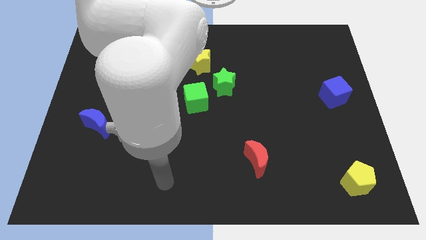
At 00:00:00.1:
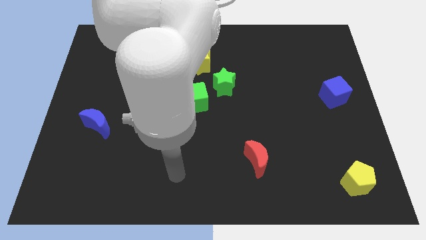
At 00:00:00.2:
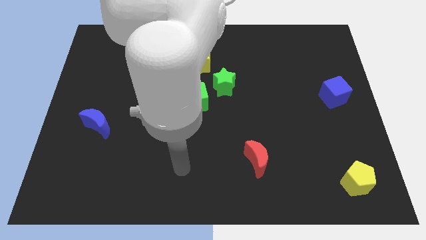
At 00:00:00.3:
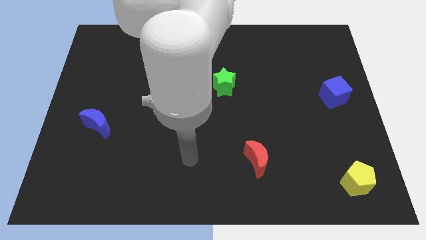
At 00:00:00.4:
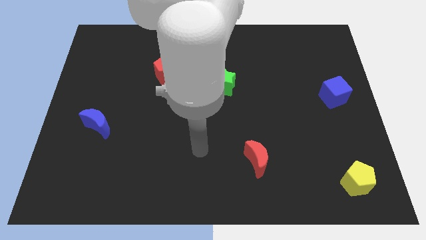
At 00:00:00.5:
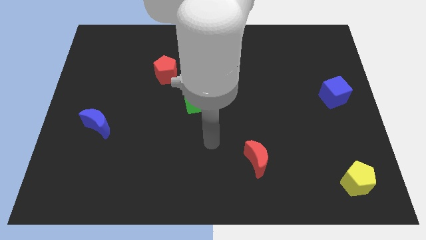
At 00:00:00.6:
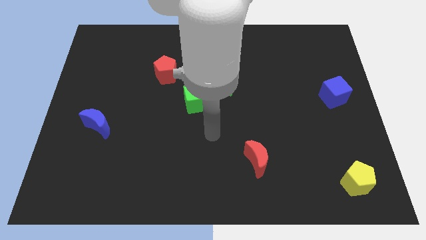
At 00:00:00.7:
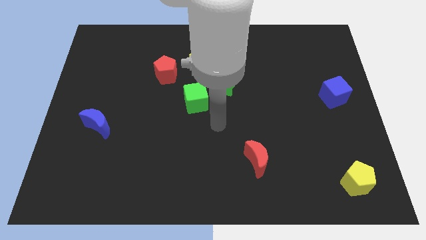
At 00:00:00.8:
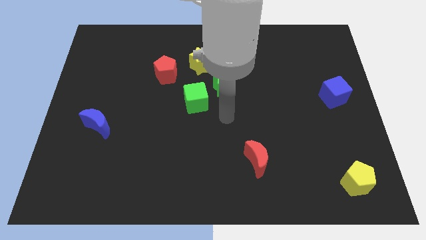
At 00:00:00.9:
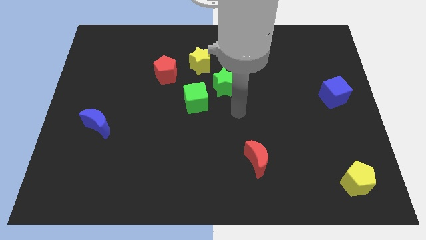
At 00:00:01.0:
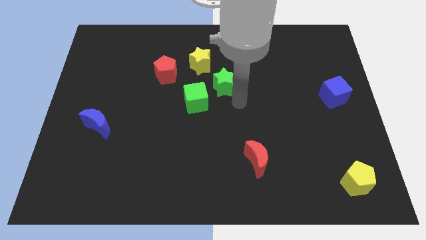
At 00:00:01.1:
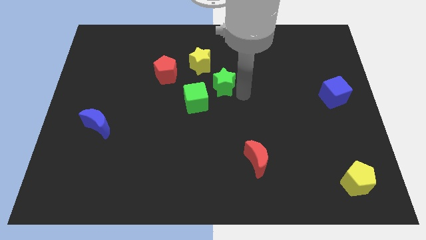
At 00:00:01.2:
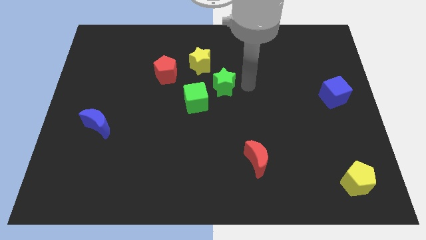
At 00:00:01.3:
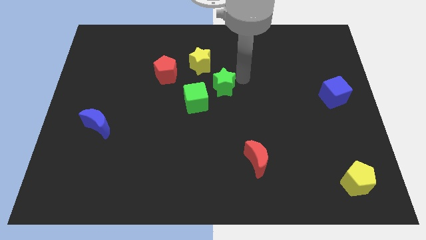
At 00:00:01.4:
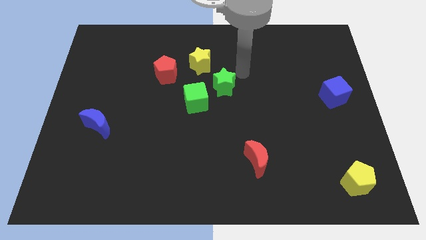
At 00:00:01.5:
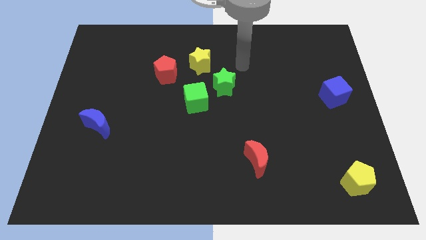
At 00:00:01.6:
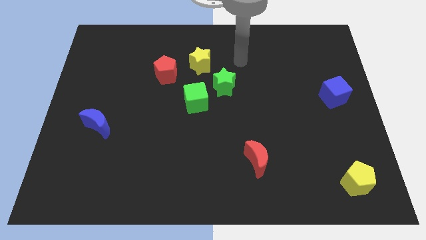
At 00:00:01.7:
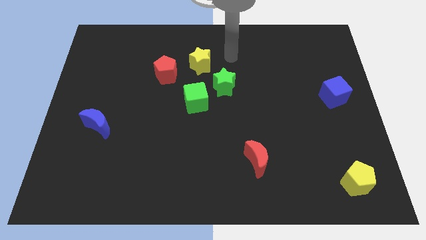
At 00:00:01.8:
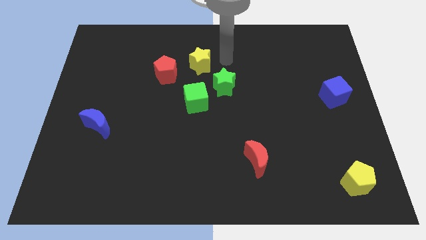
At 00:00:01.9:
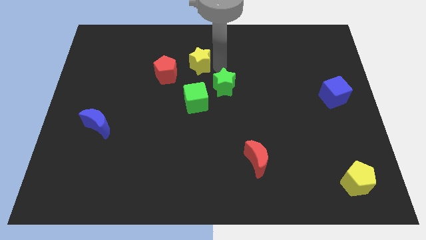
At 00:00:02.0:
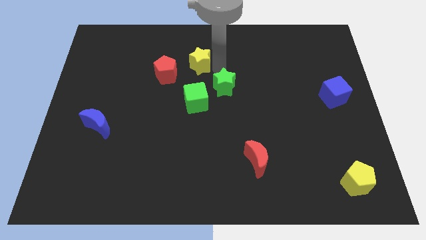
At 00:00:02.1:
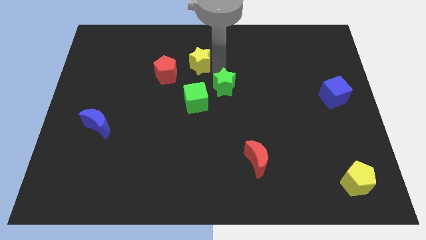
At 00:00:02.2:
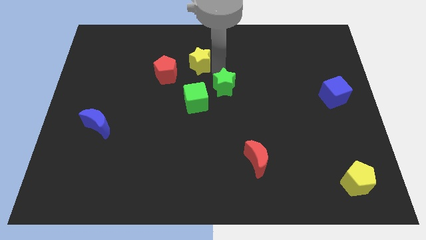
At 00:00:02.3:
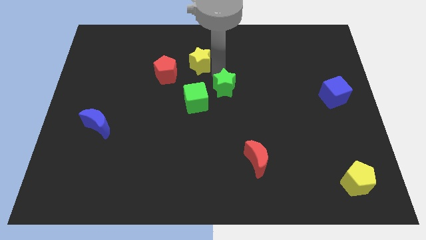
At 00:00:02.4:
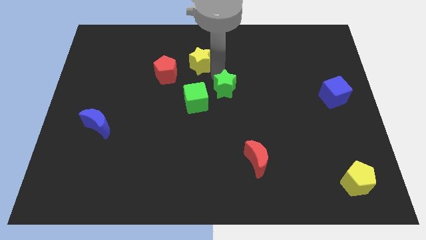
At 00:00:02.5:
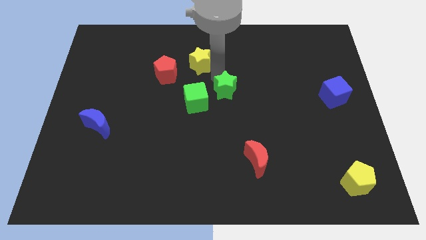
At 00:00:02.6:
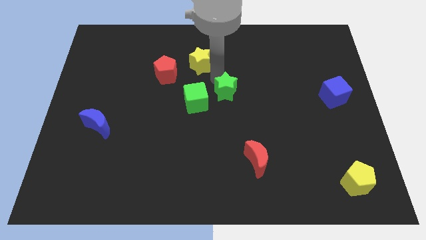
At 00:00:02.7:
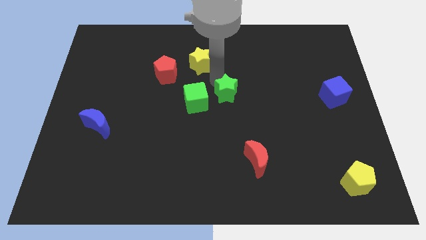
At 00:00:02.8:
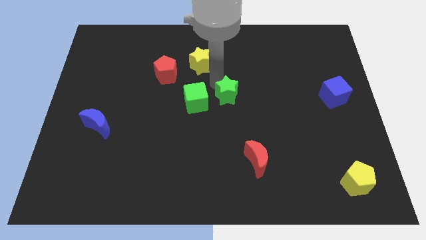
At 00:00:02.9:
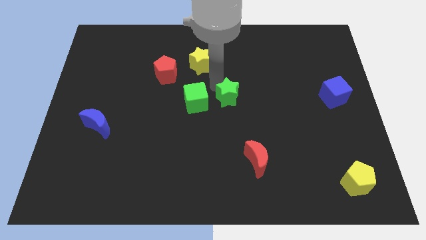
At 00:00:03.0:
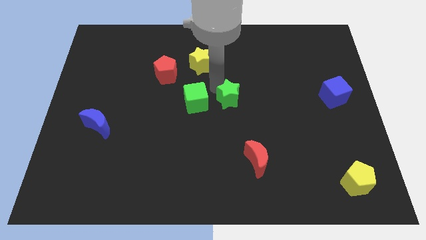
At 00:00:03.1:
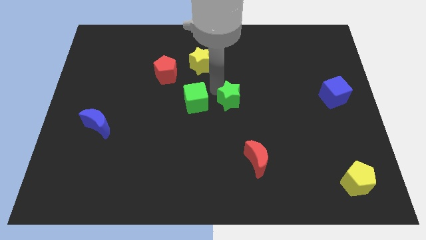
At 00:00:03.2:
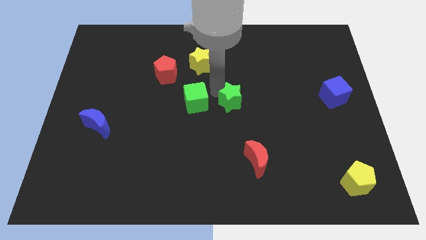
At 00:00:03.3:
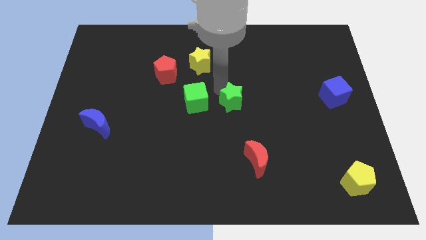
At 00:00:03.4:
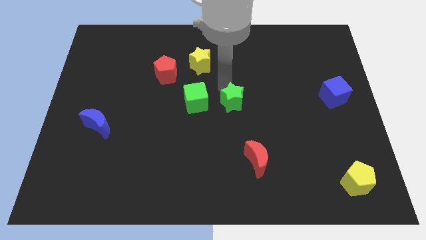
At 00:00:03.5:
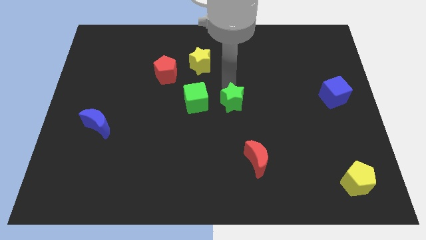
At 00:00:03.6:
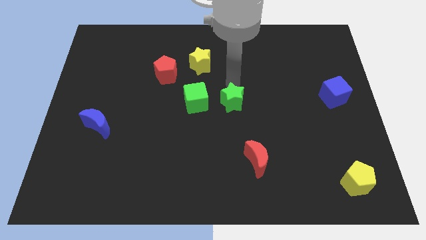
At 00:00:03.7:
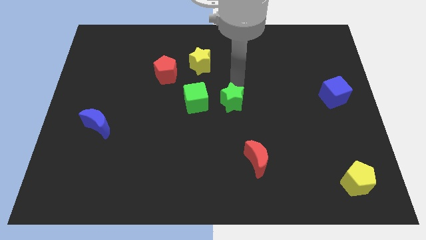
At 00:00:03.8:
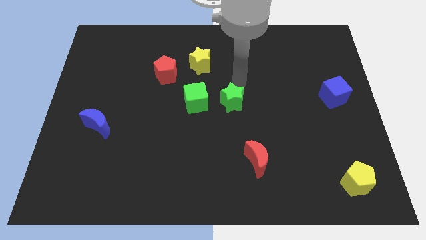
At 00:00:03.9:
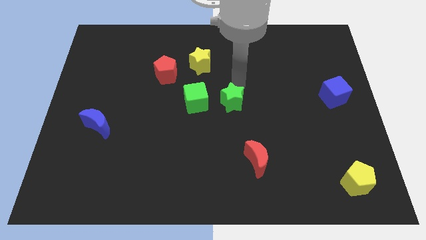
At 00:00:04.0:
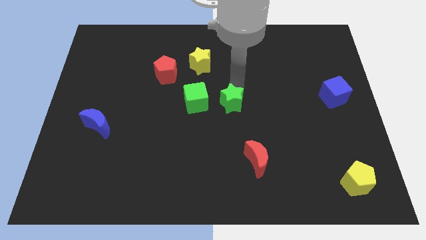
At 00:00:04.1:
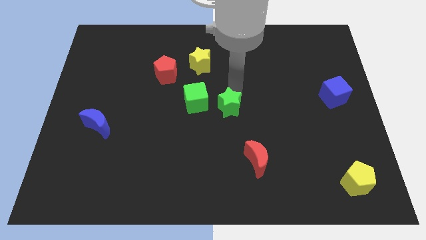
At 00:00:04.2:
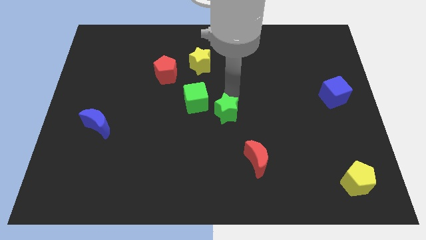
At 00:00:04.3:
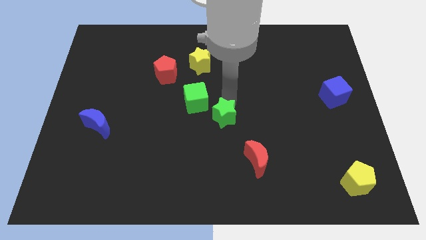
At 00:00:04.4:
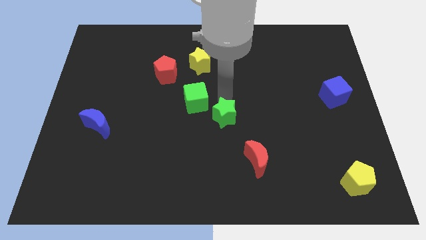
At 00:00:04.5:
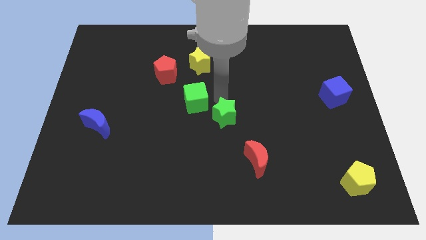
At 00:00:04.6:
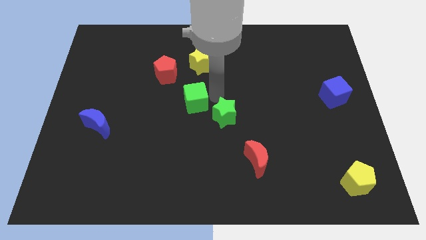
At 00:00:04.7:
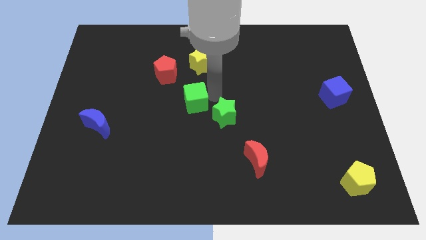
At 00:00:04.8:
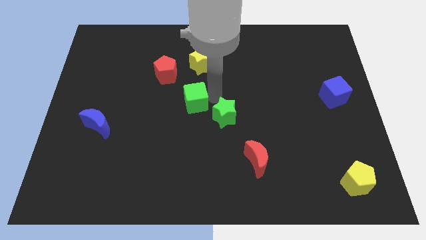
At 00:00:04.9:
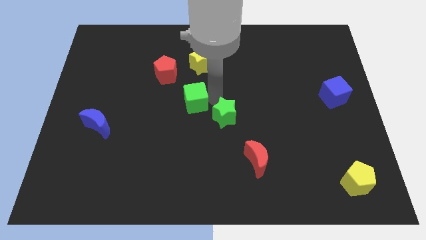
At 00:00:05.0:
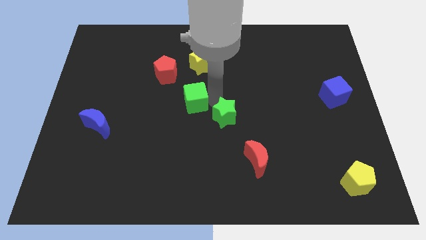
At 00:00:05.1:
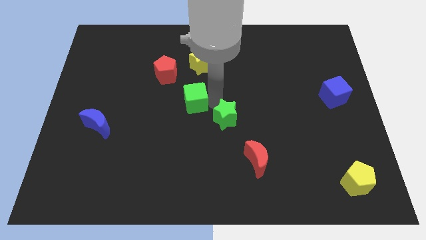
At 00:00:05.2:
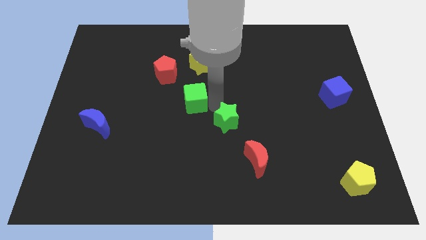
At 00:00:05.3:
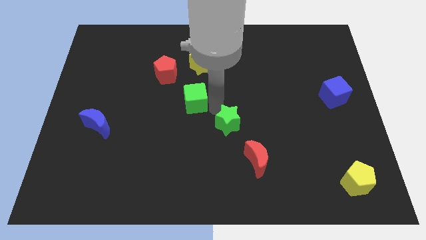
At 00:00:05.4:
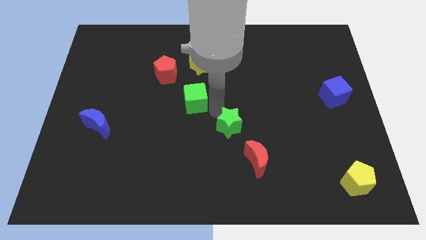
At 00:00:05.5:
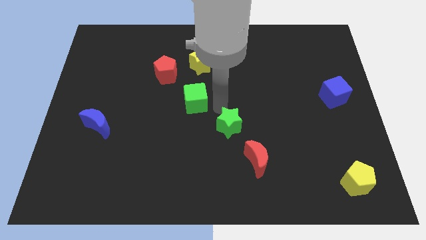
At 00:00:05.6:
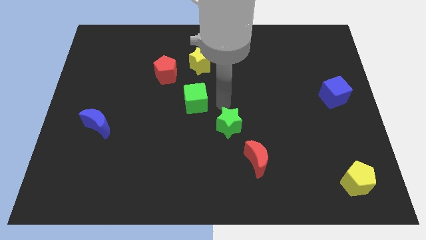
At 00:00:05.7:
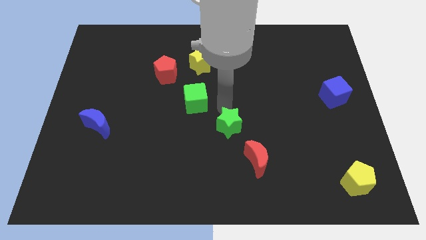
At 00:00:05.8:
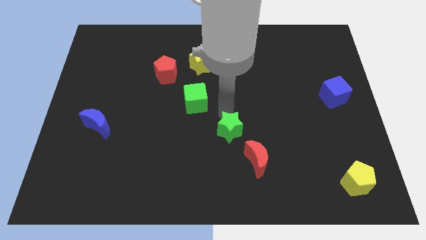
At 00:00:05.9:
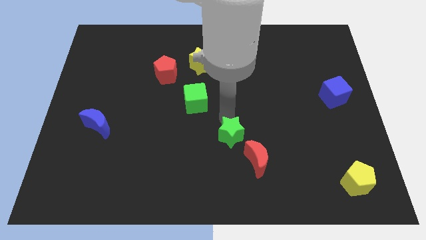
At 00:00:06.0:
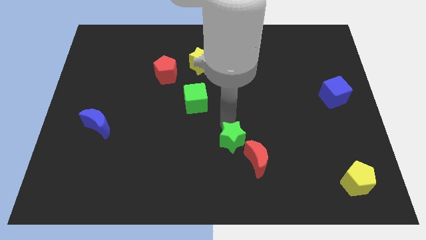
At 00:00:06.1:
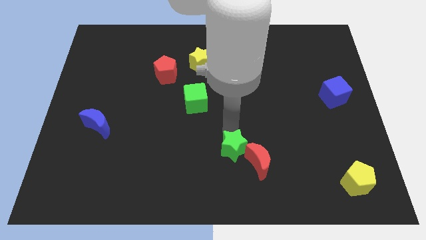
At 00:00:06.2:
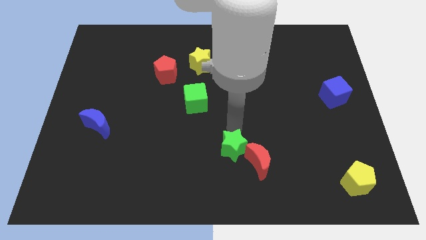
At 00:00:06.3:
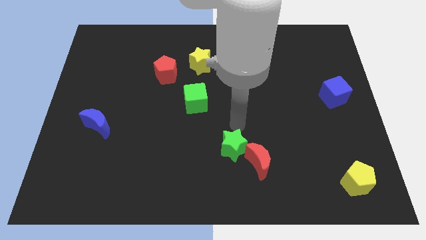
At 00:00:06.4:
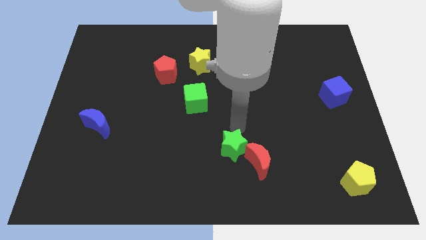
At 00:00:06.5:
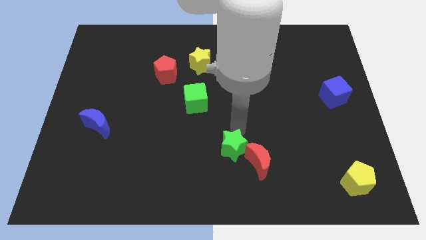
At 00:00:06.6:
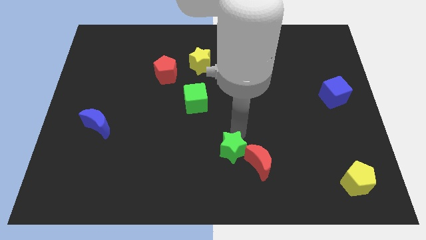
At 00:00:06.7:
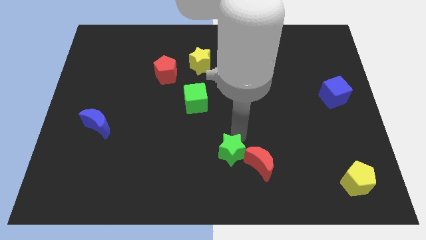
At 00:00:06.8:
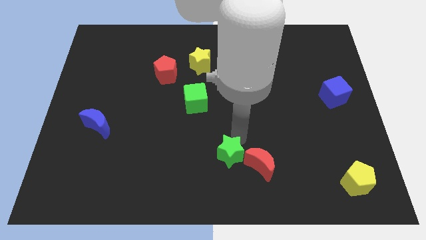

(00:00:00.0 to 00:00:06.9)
put the green star to the bottom side
